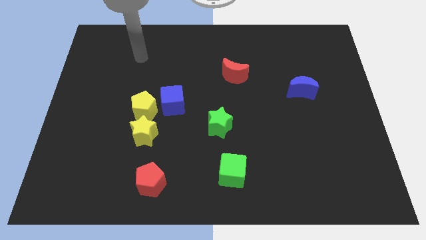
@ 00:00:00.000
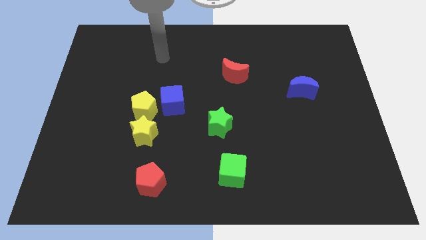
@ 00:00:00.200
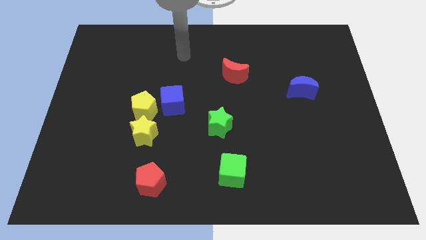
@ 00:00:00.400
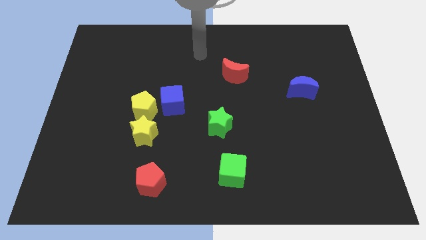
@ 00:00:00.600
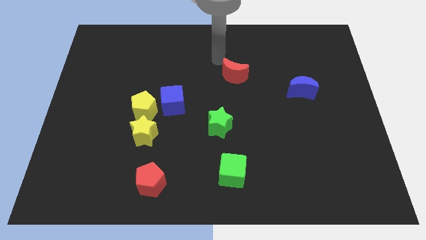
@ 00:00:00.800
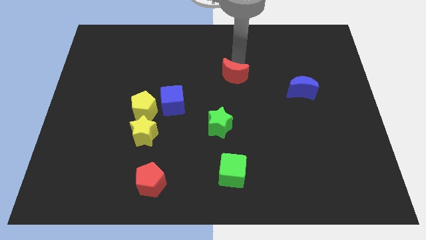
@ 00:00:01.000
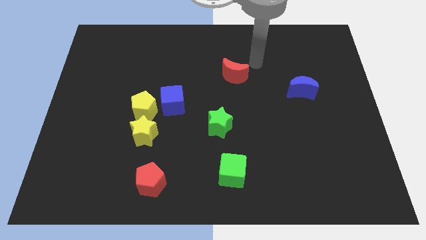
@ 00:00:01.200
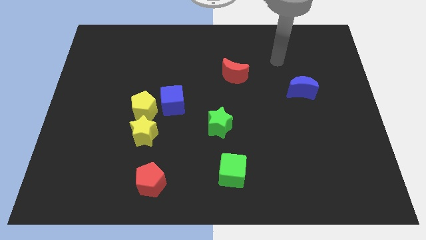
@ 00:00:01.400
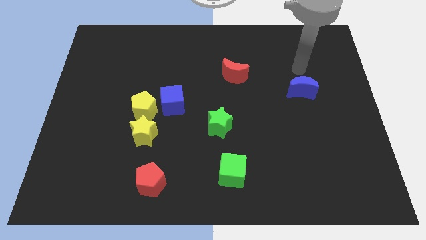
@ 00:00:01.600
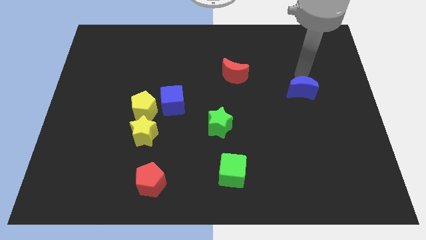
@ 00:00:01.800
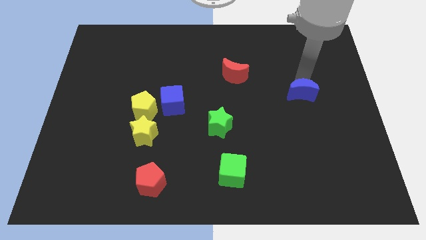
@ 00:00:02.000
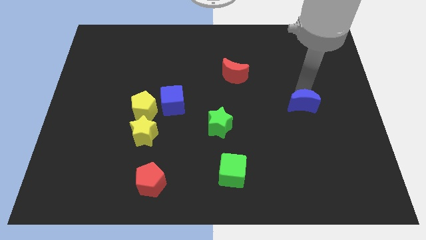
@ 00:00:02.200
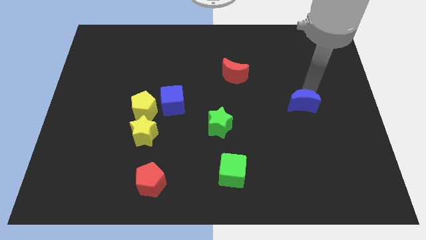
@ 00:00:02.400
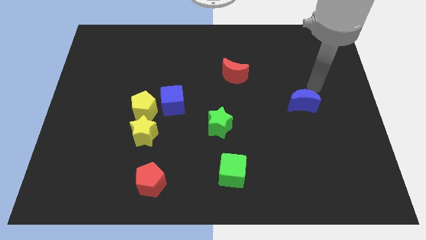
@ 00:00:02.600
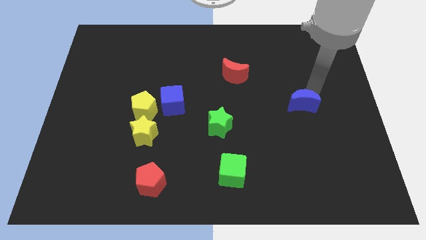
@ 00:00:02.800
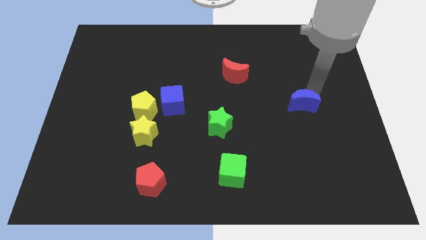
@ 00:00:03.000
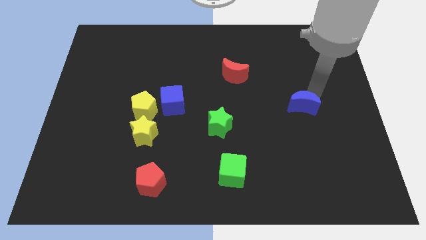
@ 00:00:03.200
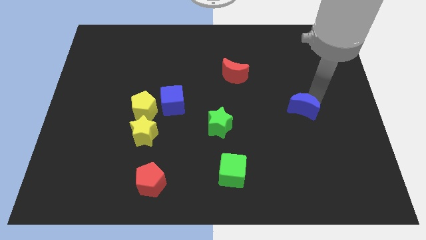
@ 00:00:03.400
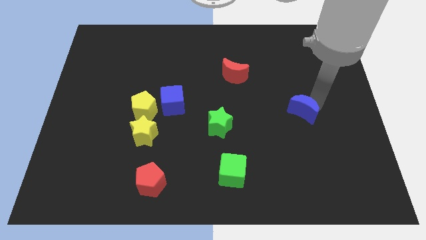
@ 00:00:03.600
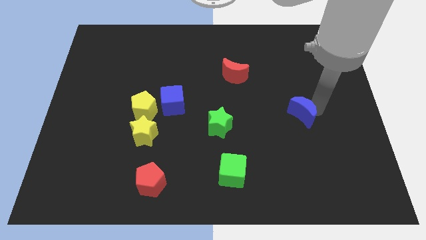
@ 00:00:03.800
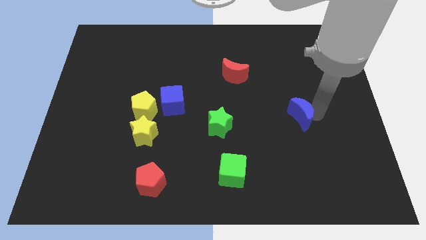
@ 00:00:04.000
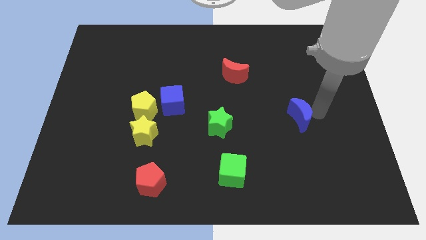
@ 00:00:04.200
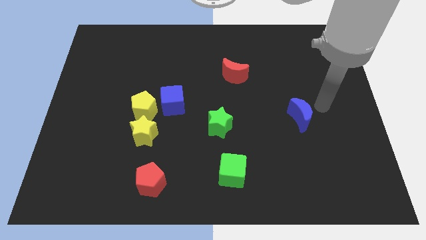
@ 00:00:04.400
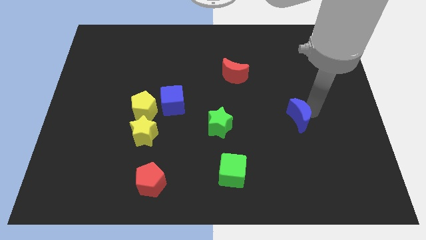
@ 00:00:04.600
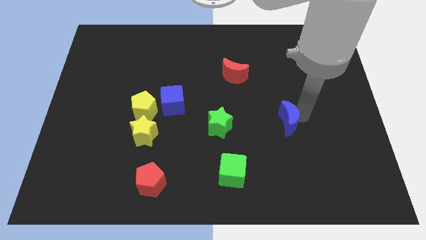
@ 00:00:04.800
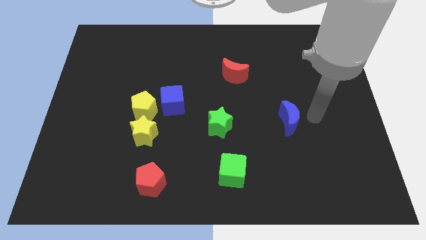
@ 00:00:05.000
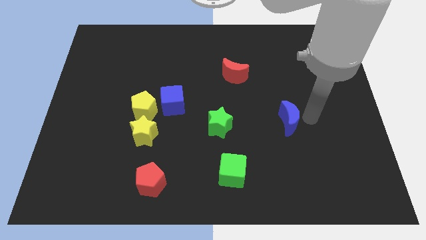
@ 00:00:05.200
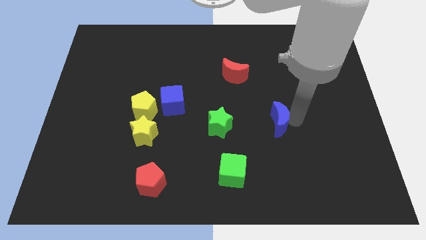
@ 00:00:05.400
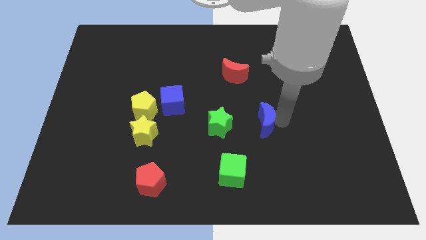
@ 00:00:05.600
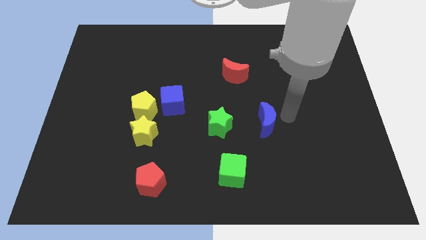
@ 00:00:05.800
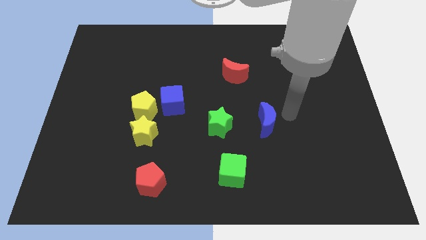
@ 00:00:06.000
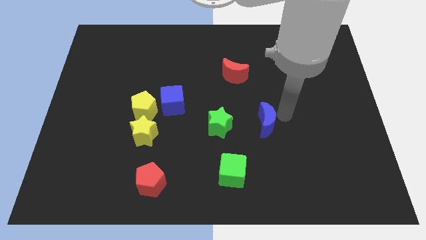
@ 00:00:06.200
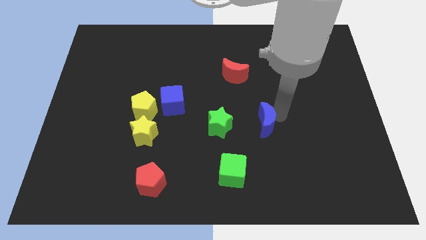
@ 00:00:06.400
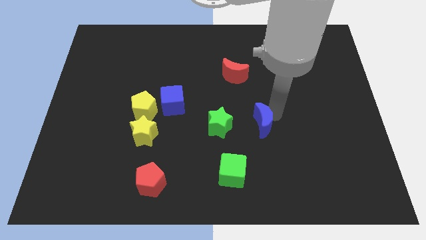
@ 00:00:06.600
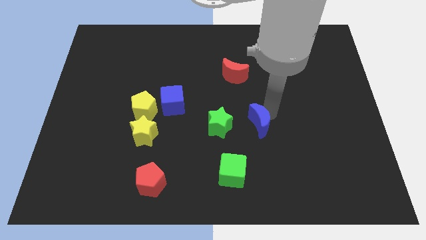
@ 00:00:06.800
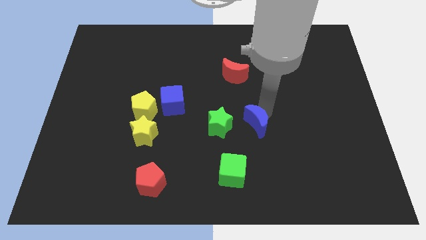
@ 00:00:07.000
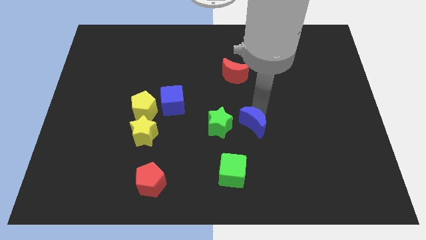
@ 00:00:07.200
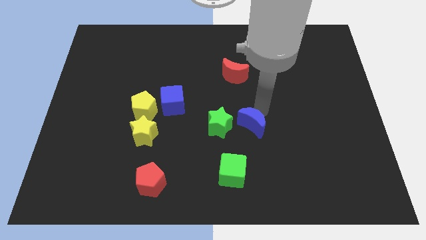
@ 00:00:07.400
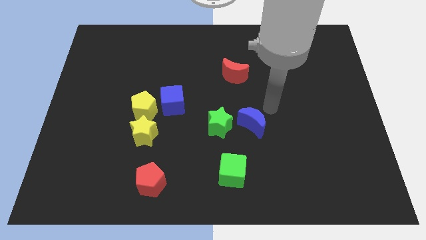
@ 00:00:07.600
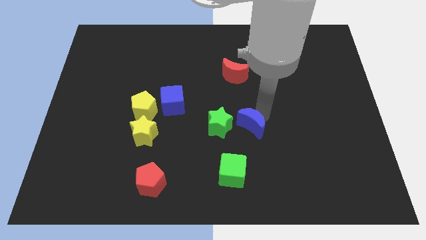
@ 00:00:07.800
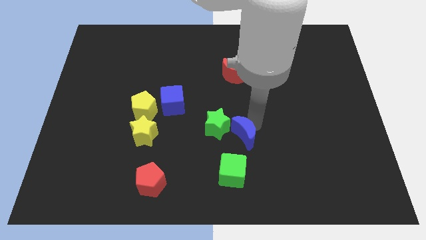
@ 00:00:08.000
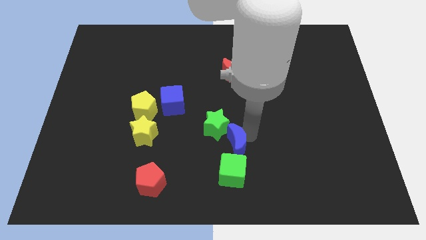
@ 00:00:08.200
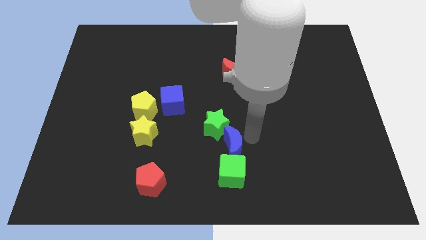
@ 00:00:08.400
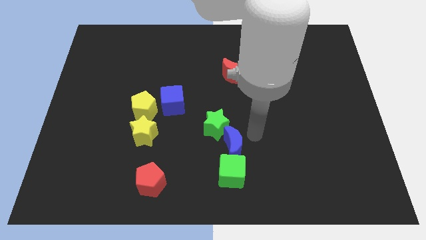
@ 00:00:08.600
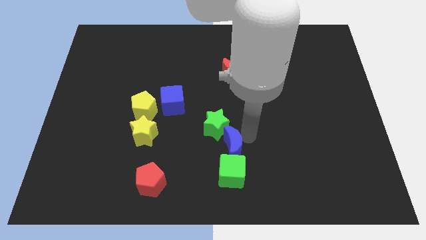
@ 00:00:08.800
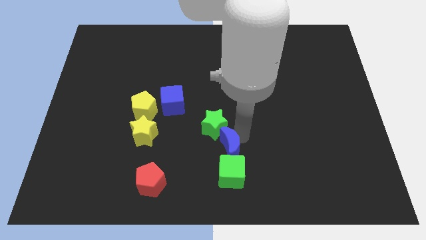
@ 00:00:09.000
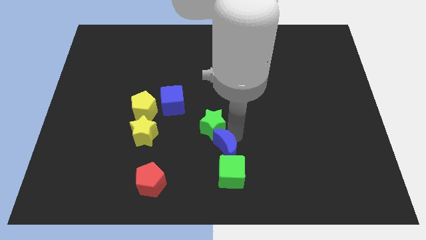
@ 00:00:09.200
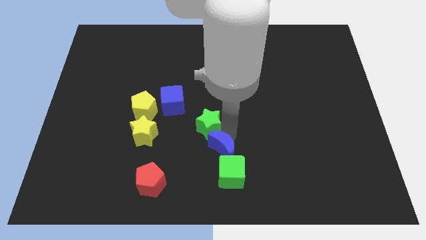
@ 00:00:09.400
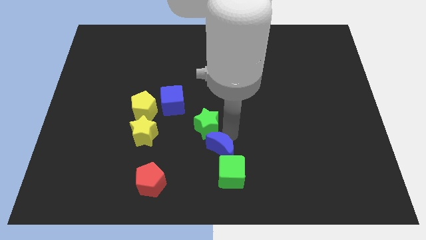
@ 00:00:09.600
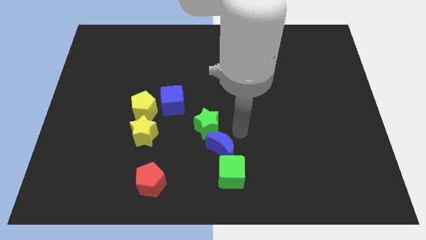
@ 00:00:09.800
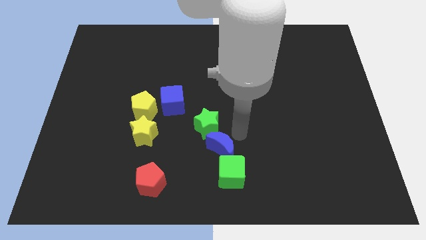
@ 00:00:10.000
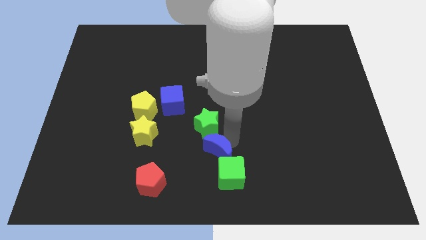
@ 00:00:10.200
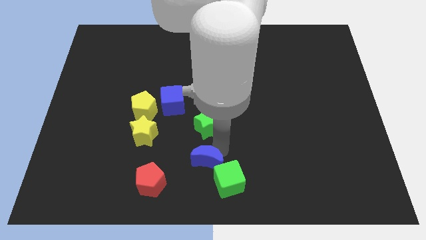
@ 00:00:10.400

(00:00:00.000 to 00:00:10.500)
push the blue moon left of the green cube

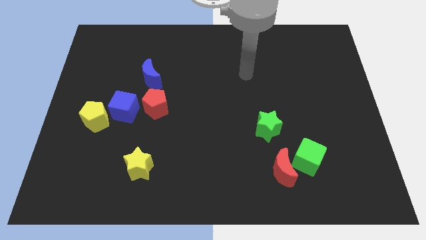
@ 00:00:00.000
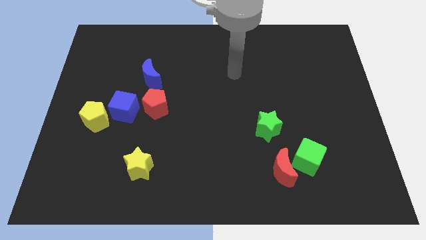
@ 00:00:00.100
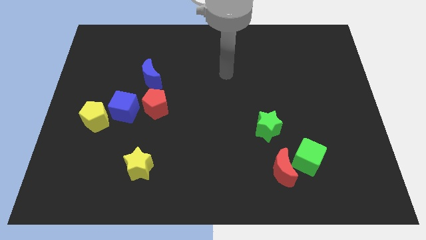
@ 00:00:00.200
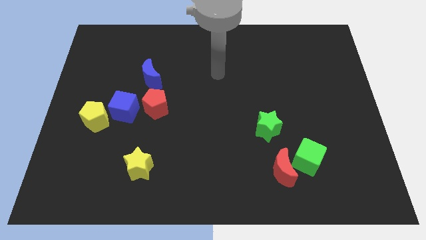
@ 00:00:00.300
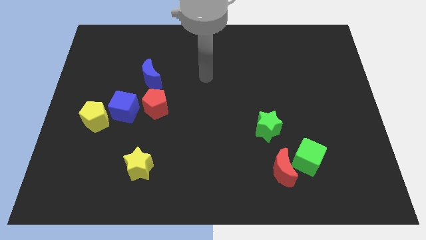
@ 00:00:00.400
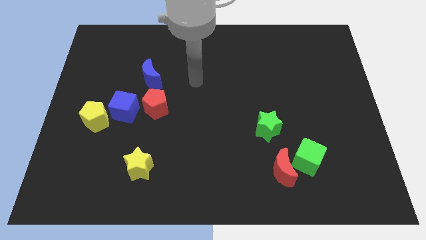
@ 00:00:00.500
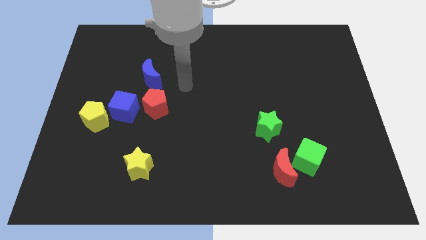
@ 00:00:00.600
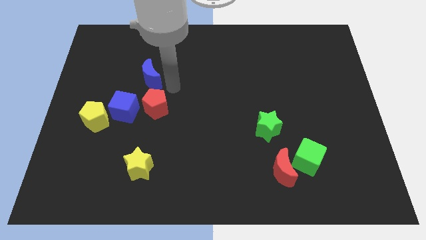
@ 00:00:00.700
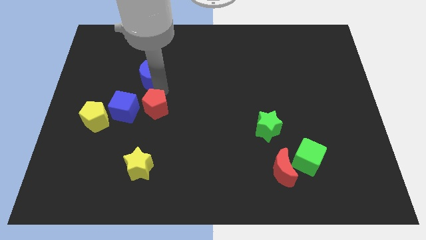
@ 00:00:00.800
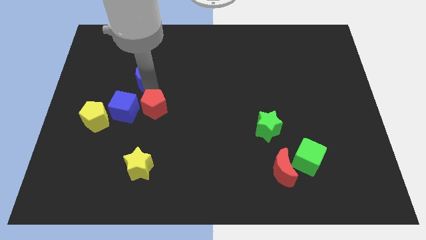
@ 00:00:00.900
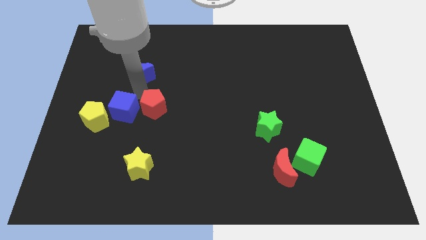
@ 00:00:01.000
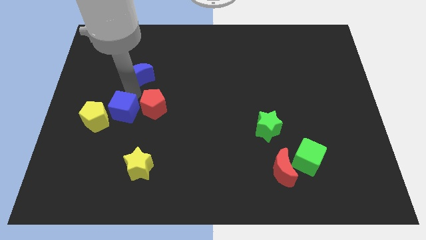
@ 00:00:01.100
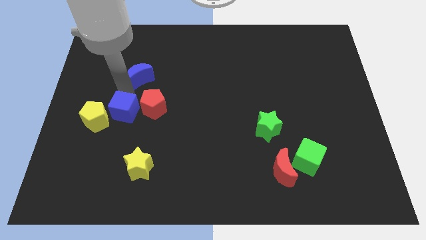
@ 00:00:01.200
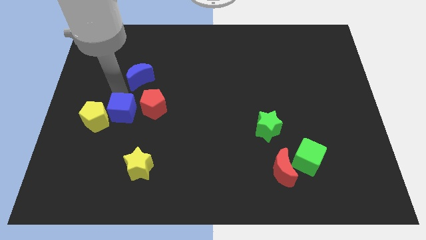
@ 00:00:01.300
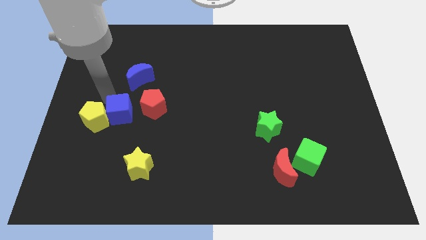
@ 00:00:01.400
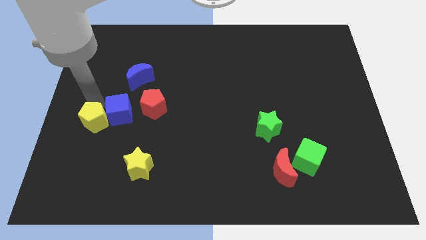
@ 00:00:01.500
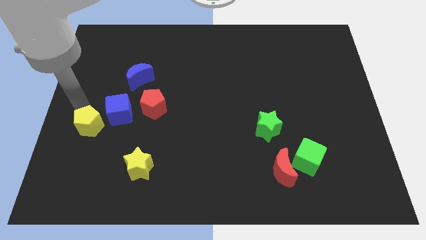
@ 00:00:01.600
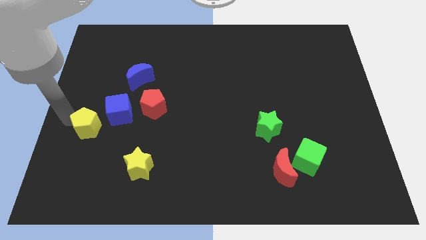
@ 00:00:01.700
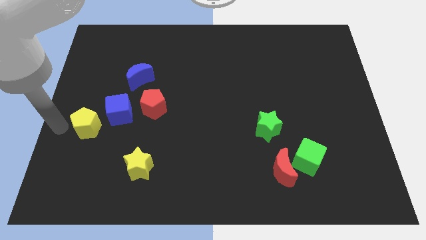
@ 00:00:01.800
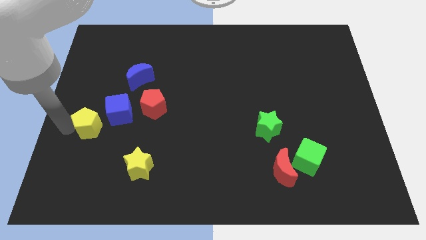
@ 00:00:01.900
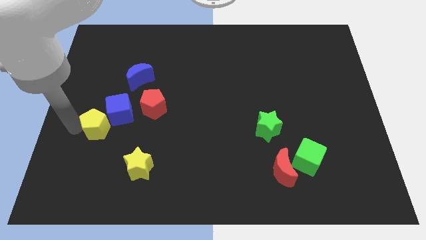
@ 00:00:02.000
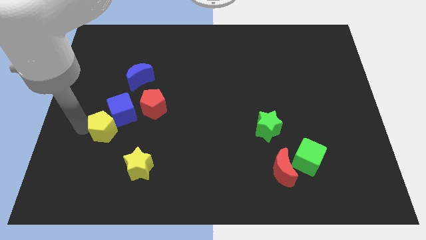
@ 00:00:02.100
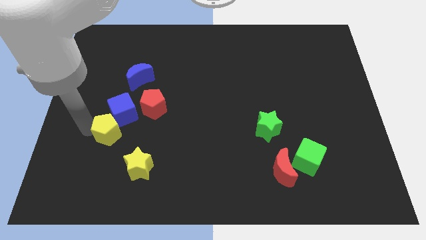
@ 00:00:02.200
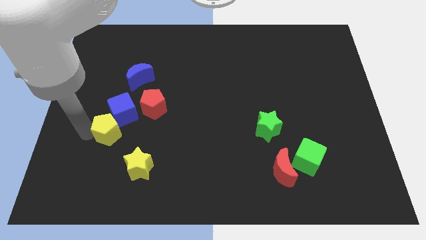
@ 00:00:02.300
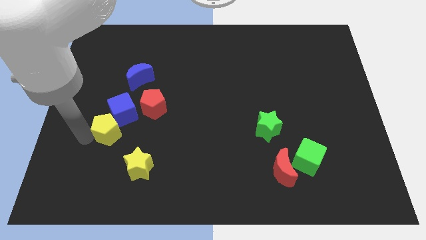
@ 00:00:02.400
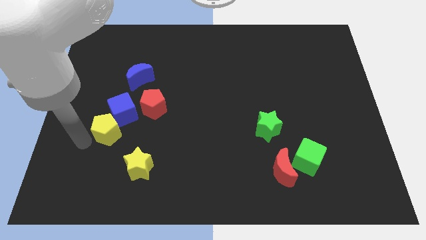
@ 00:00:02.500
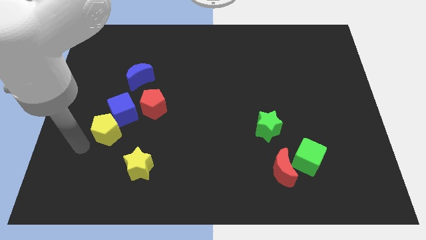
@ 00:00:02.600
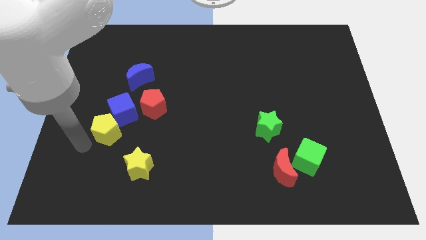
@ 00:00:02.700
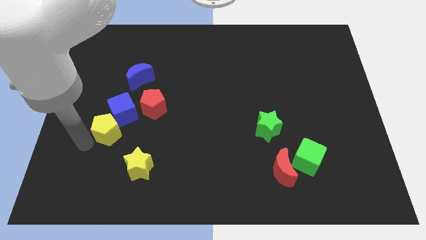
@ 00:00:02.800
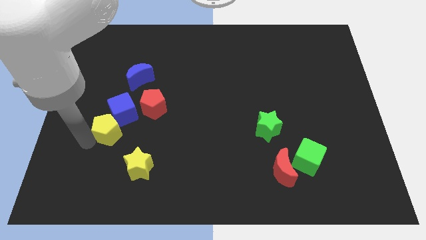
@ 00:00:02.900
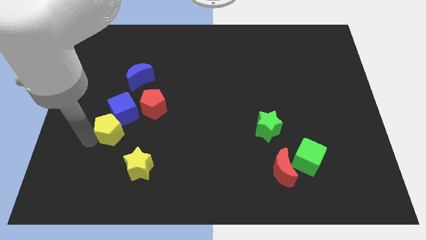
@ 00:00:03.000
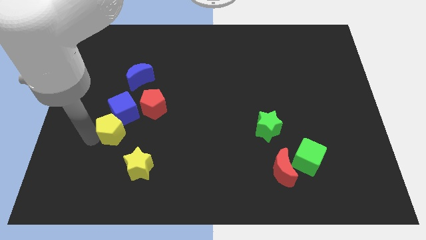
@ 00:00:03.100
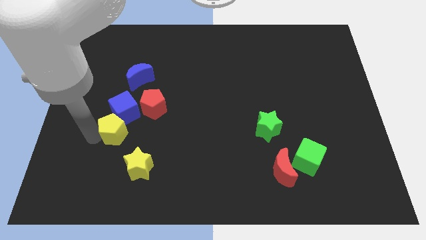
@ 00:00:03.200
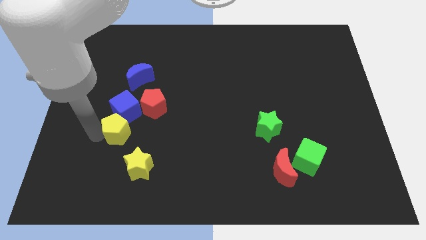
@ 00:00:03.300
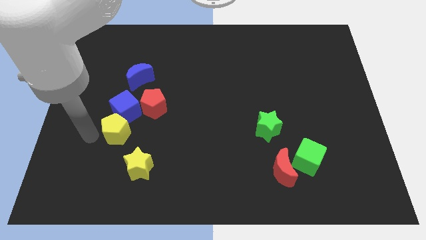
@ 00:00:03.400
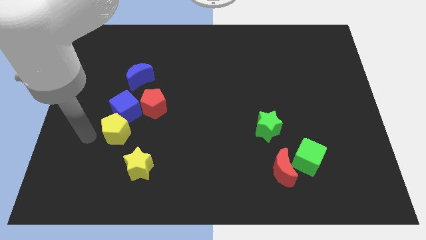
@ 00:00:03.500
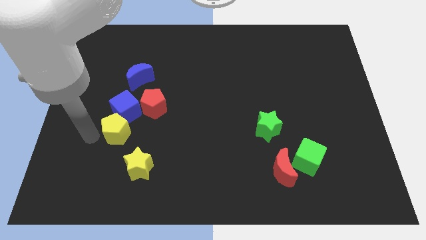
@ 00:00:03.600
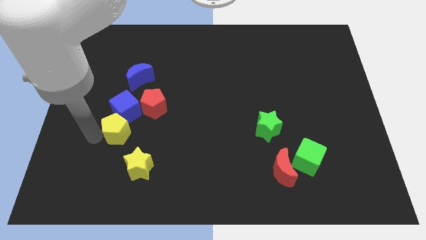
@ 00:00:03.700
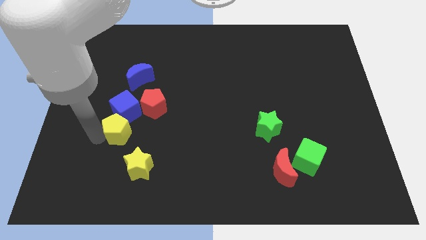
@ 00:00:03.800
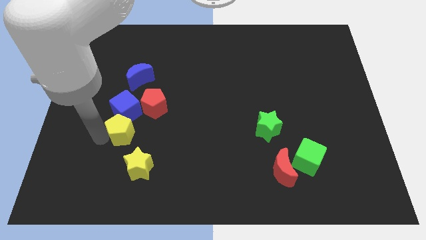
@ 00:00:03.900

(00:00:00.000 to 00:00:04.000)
slide the yellow pentagon diagonally down and to the right of the blue cube
